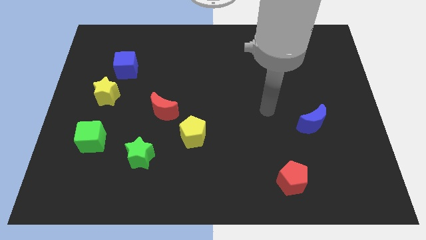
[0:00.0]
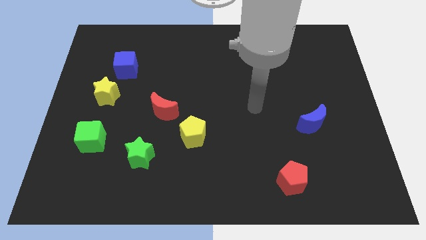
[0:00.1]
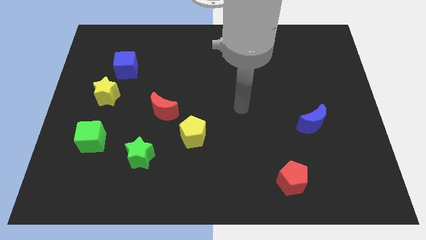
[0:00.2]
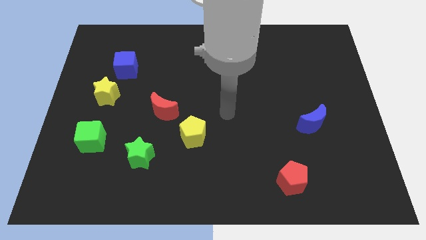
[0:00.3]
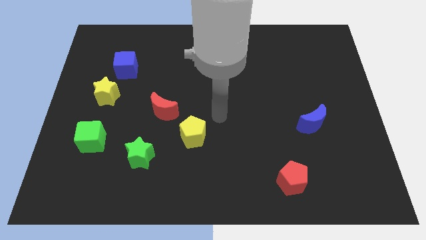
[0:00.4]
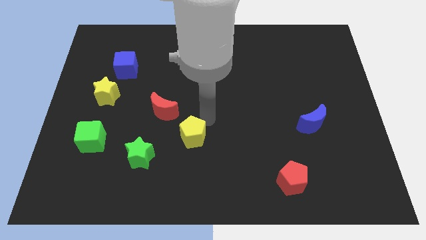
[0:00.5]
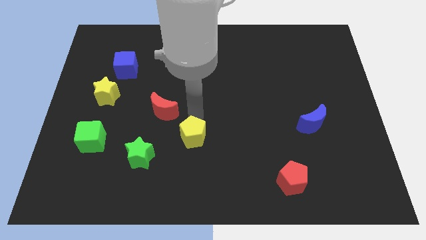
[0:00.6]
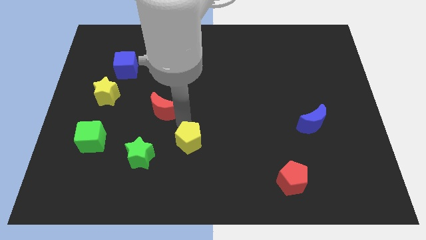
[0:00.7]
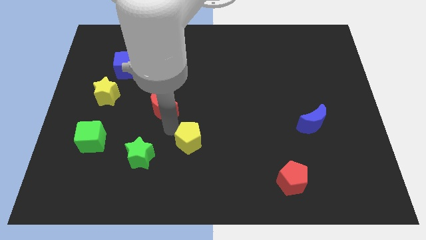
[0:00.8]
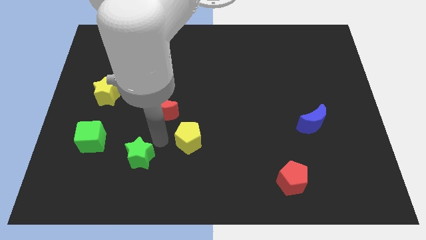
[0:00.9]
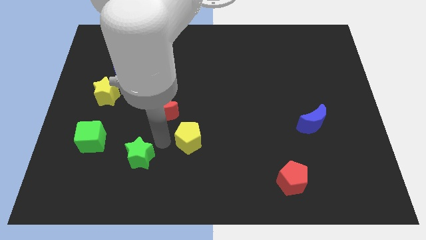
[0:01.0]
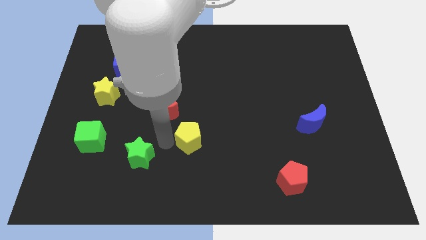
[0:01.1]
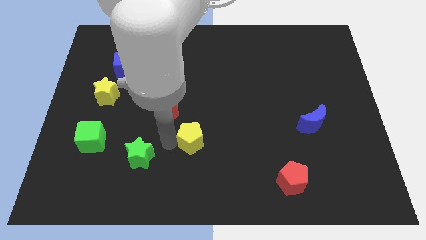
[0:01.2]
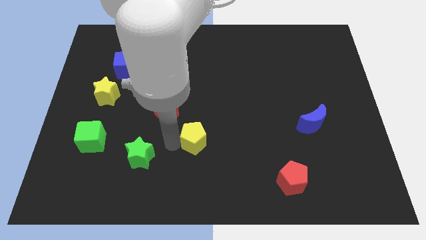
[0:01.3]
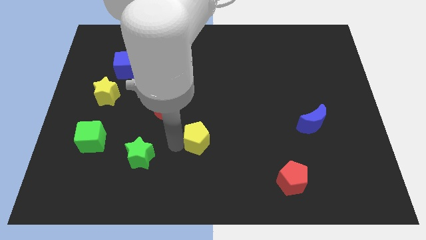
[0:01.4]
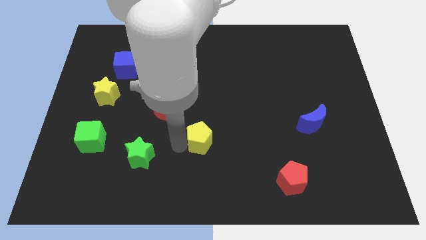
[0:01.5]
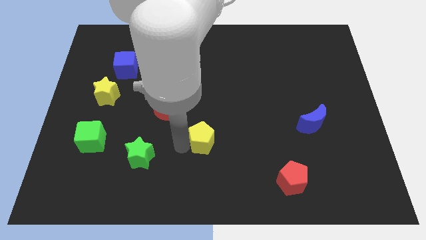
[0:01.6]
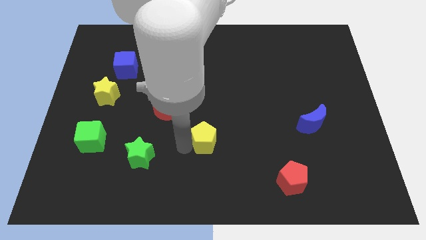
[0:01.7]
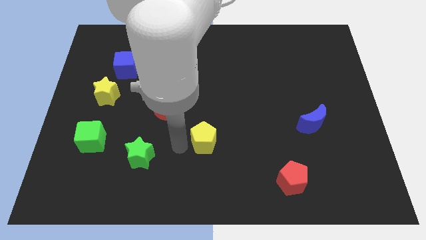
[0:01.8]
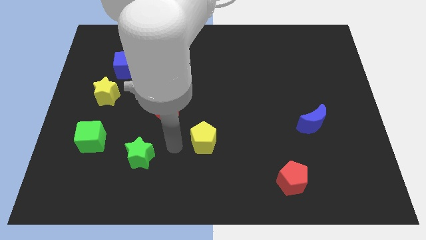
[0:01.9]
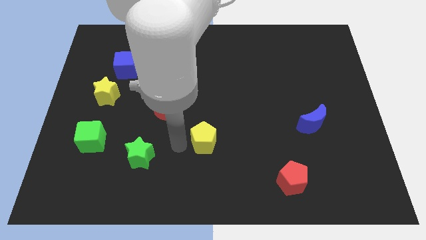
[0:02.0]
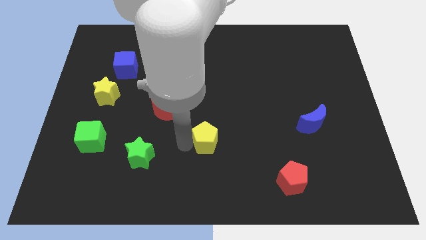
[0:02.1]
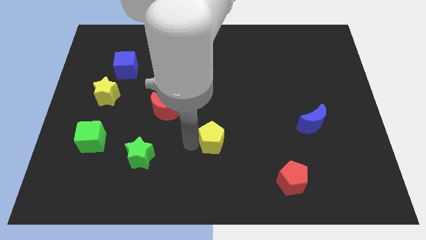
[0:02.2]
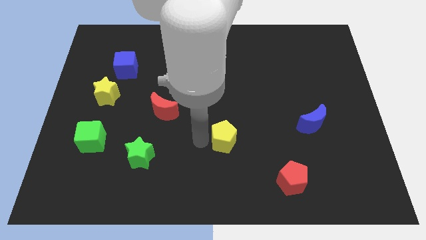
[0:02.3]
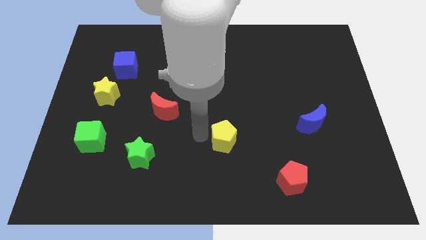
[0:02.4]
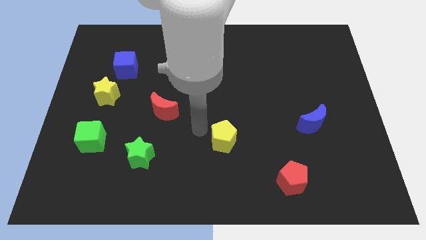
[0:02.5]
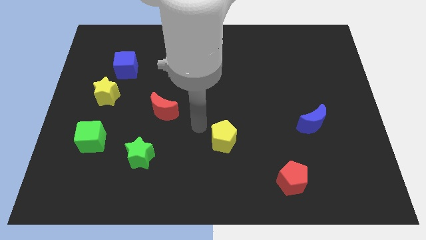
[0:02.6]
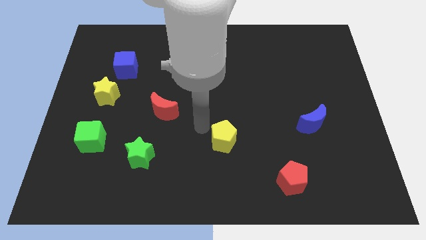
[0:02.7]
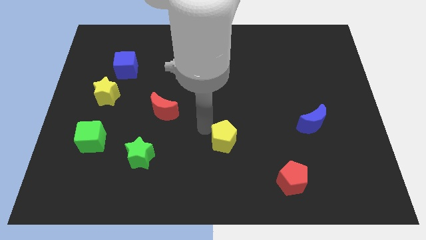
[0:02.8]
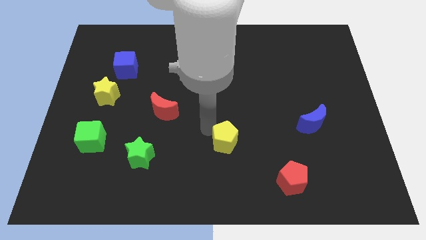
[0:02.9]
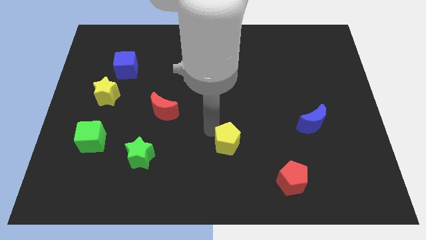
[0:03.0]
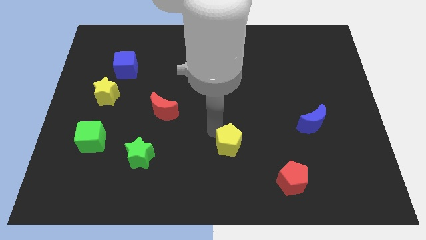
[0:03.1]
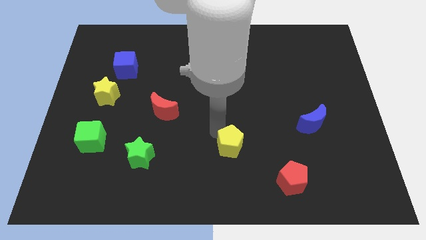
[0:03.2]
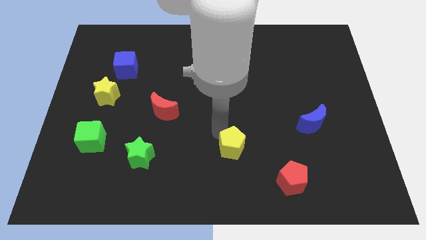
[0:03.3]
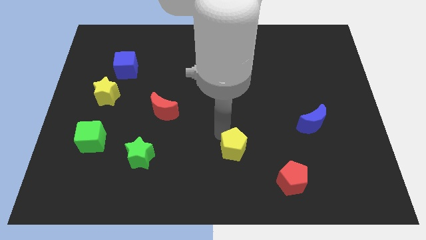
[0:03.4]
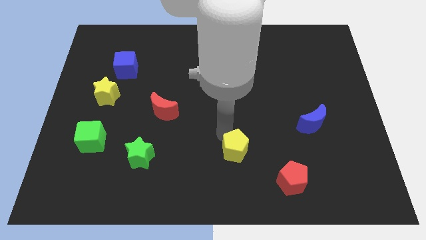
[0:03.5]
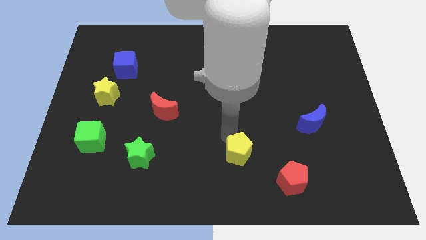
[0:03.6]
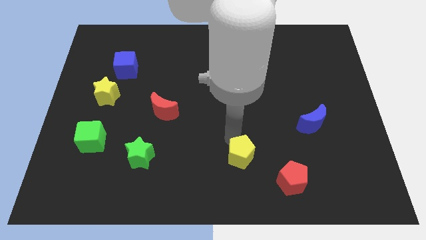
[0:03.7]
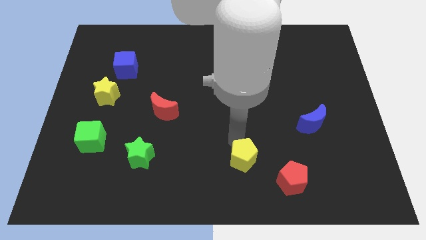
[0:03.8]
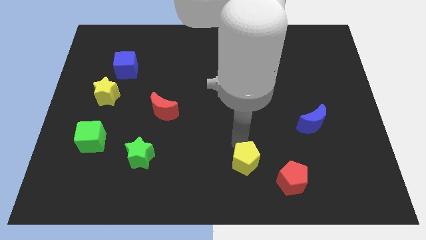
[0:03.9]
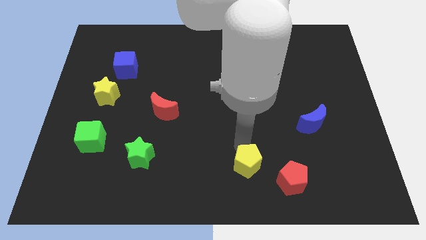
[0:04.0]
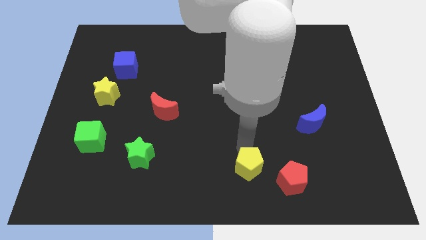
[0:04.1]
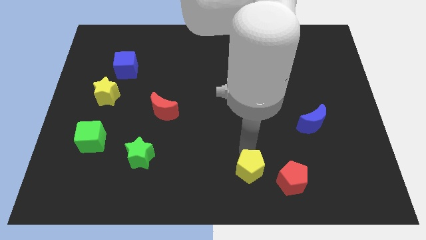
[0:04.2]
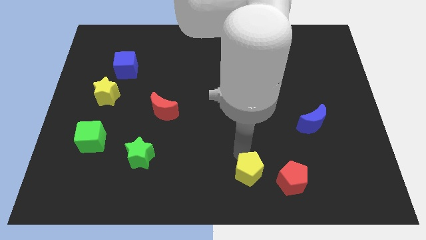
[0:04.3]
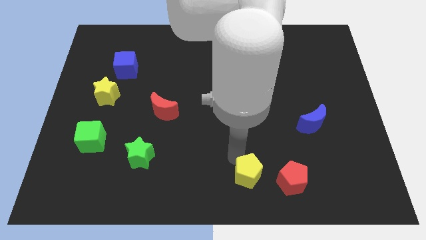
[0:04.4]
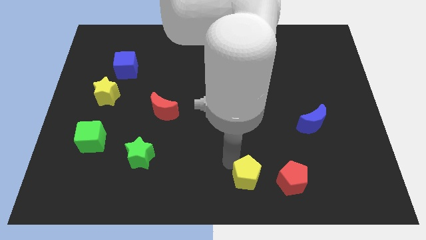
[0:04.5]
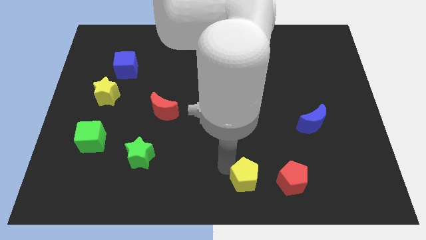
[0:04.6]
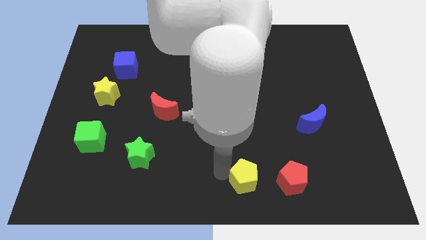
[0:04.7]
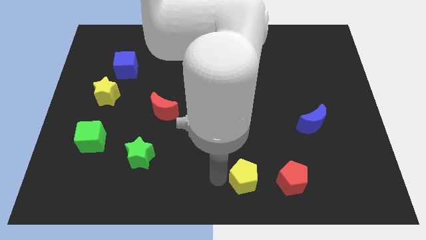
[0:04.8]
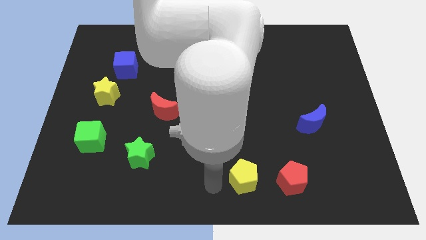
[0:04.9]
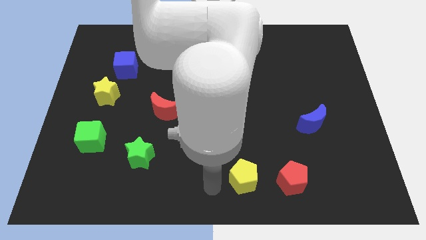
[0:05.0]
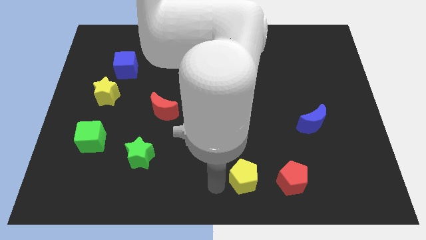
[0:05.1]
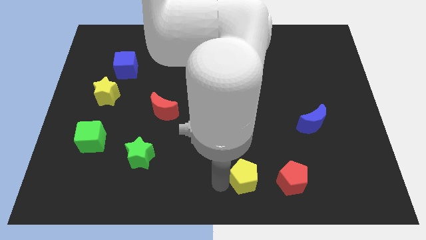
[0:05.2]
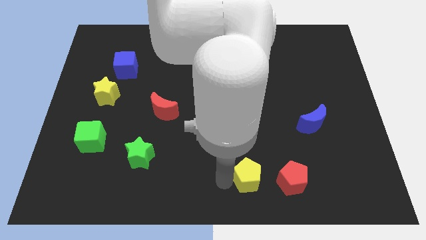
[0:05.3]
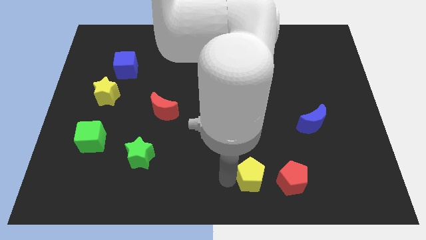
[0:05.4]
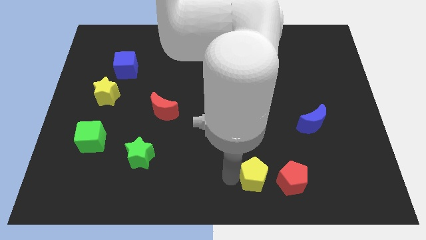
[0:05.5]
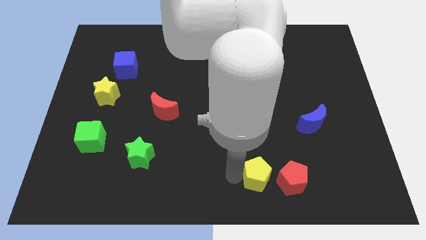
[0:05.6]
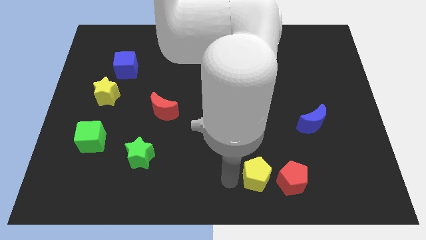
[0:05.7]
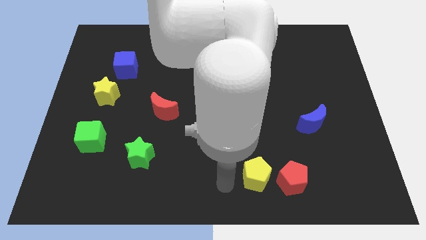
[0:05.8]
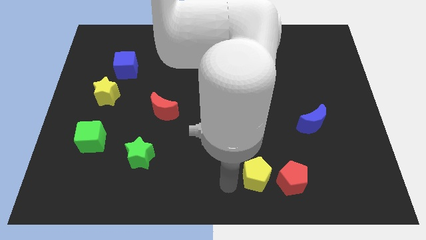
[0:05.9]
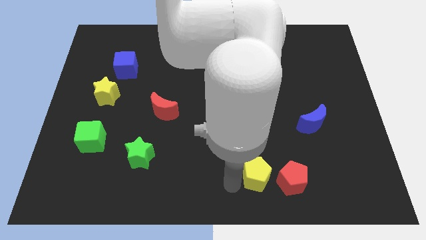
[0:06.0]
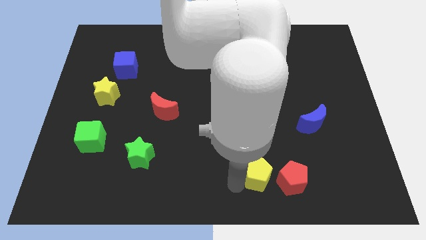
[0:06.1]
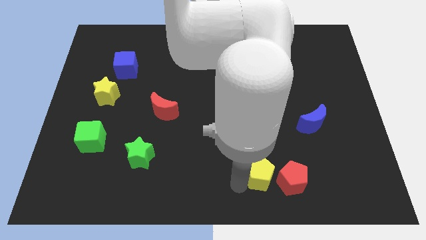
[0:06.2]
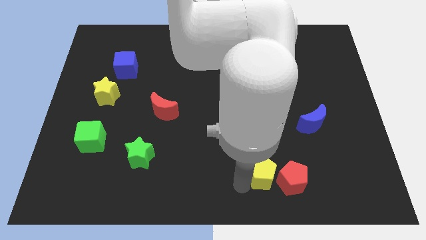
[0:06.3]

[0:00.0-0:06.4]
push the yellow pentagon next to the red pentagon

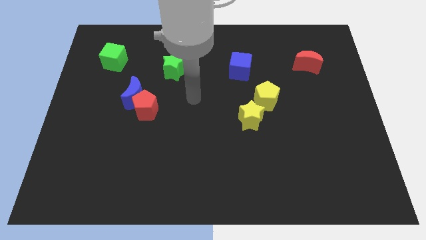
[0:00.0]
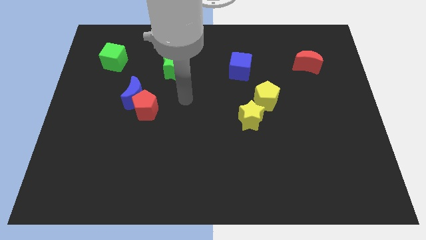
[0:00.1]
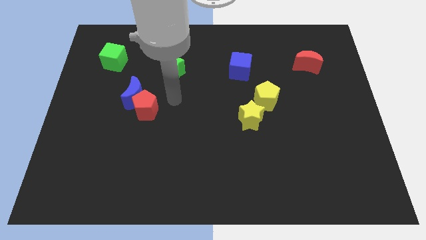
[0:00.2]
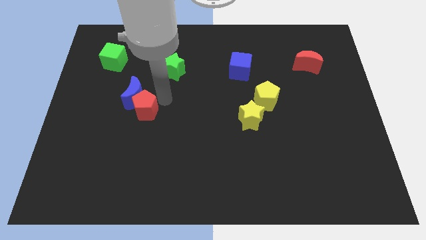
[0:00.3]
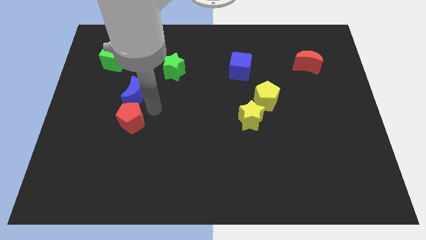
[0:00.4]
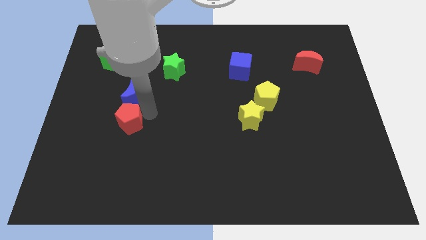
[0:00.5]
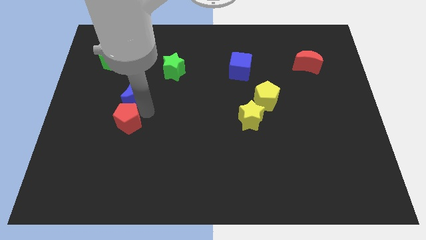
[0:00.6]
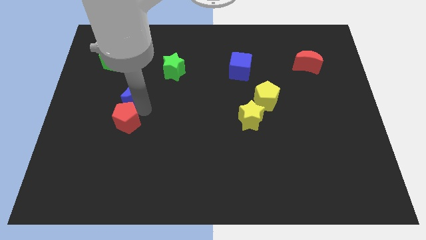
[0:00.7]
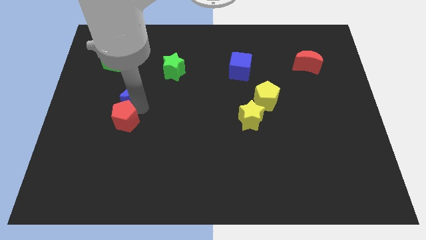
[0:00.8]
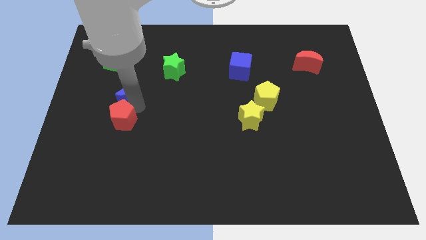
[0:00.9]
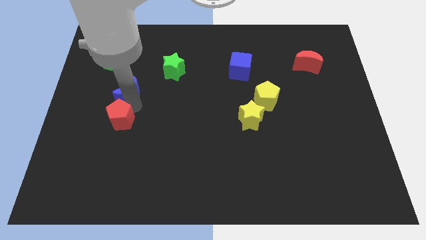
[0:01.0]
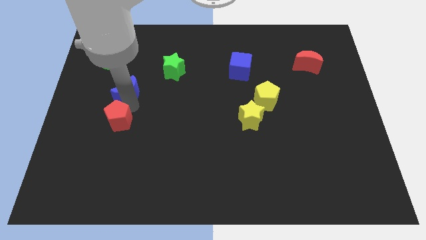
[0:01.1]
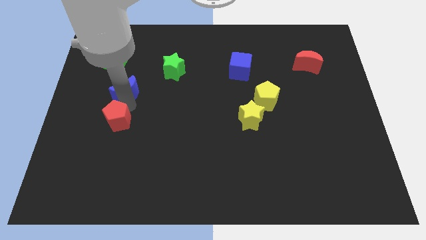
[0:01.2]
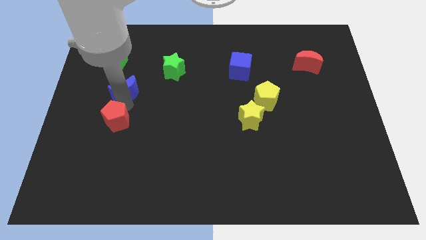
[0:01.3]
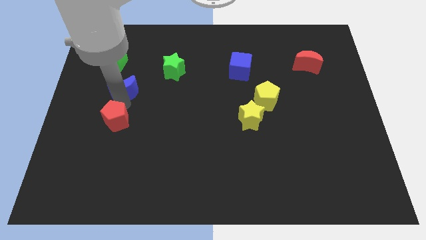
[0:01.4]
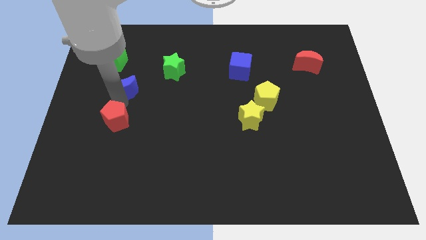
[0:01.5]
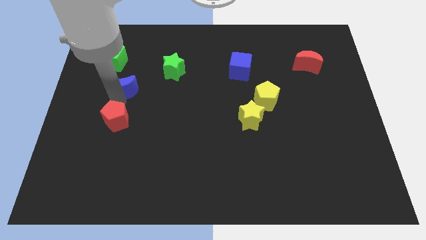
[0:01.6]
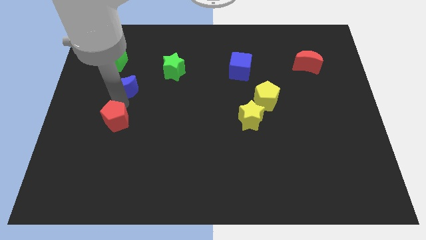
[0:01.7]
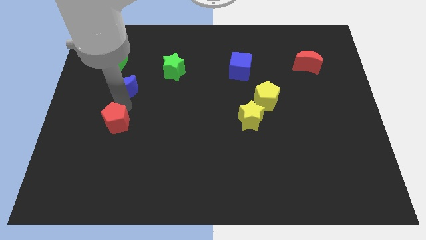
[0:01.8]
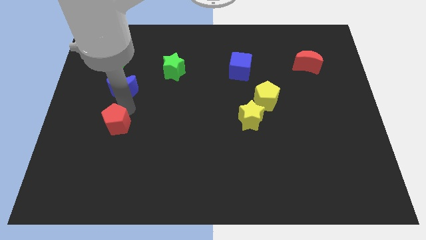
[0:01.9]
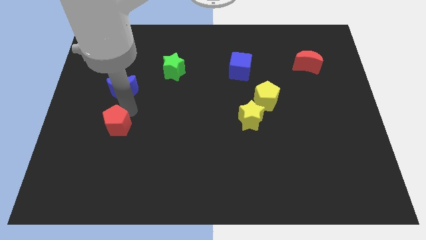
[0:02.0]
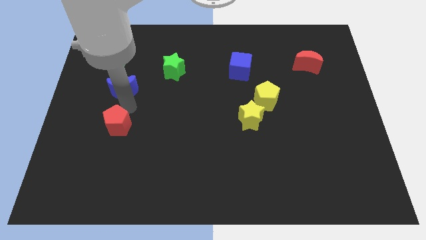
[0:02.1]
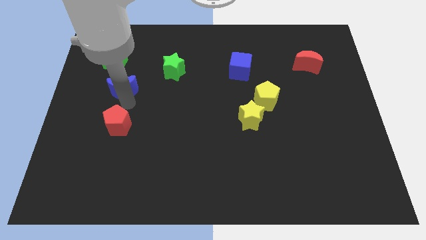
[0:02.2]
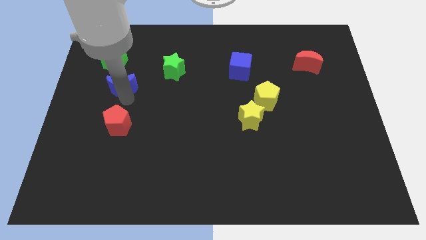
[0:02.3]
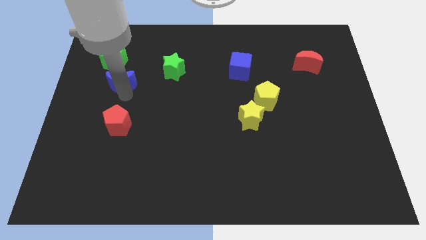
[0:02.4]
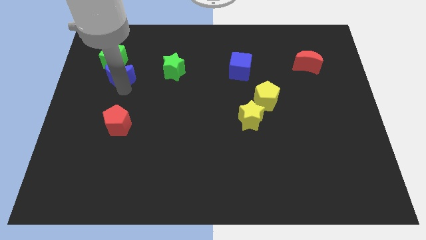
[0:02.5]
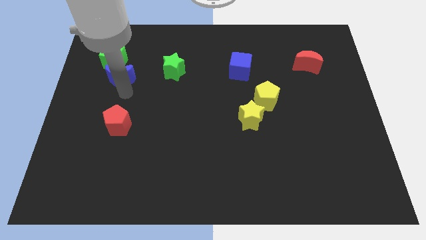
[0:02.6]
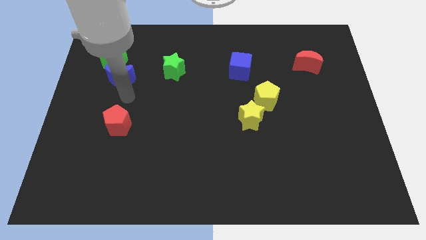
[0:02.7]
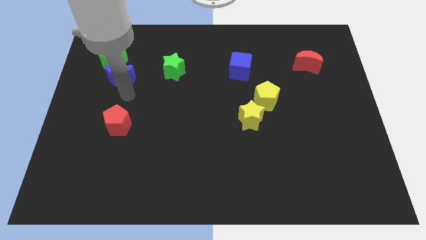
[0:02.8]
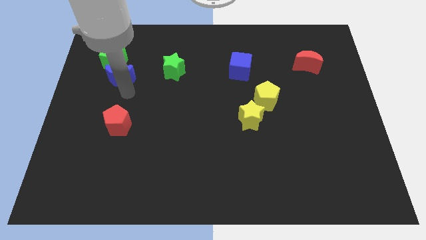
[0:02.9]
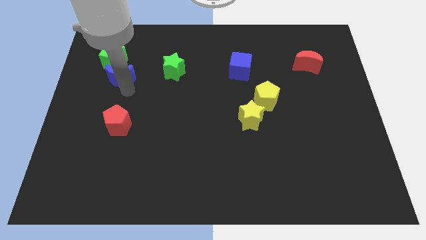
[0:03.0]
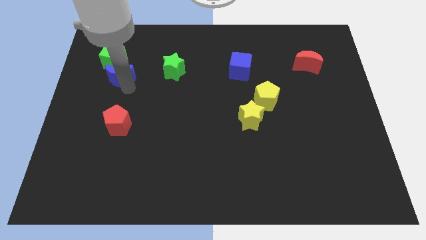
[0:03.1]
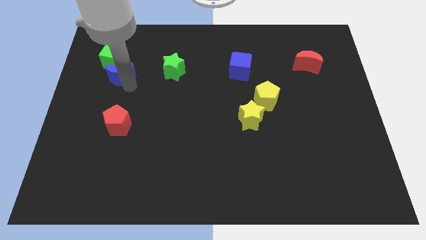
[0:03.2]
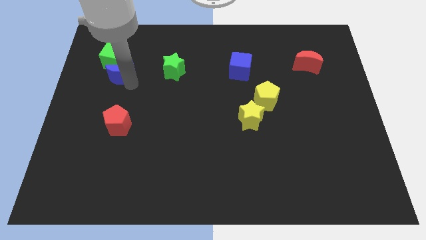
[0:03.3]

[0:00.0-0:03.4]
move the blue moon close to the green cube
